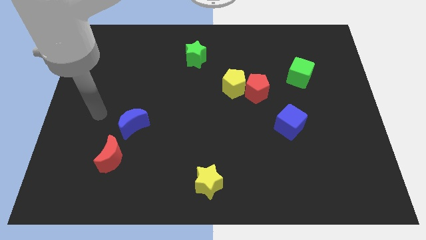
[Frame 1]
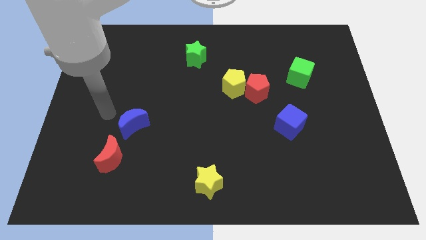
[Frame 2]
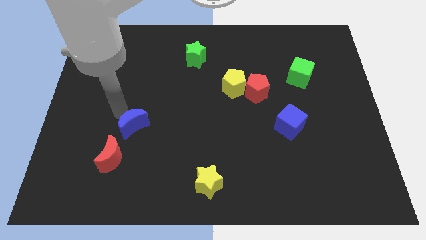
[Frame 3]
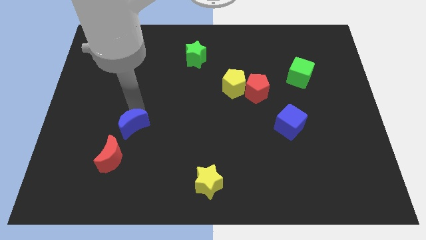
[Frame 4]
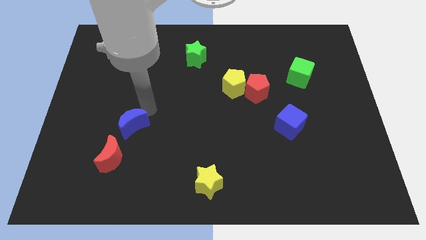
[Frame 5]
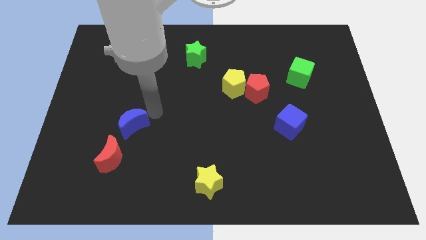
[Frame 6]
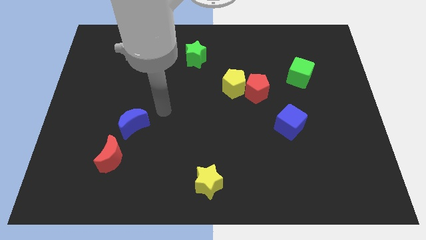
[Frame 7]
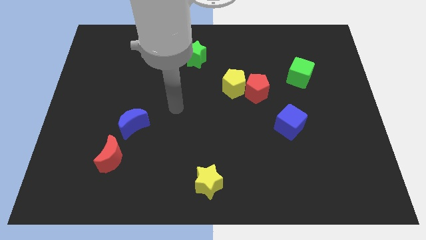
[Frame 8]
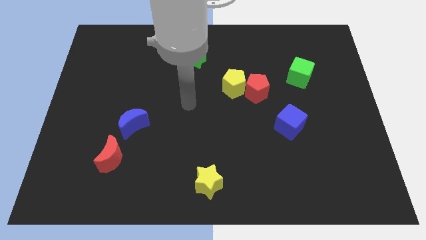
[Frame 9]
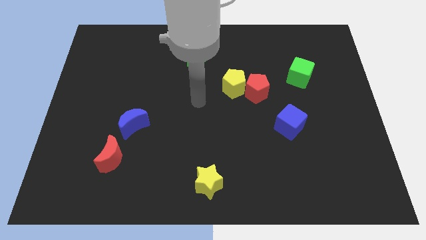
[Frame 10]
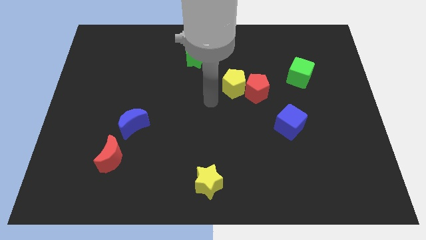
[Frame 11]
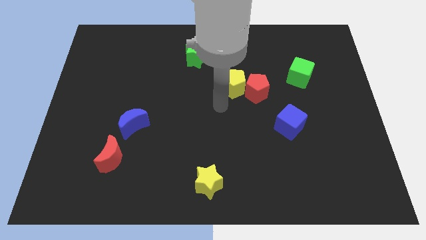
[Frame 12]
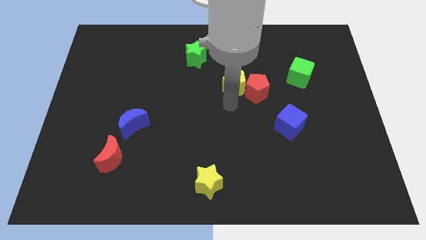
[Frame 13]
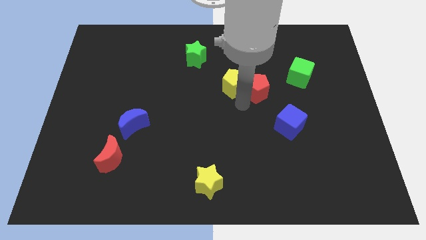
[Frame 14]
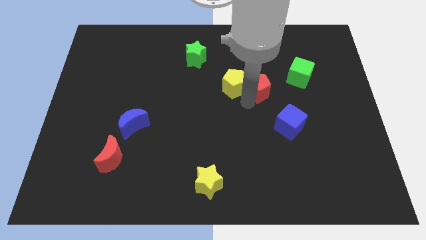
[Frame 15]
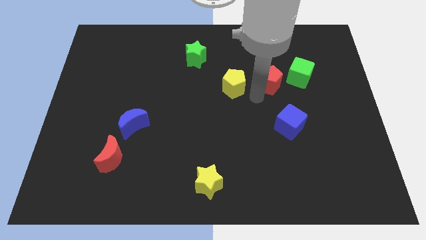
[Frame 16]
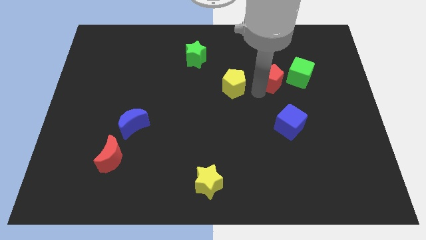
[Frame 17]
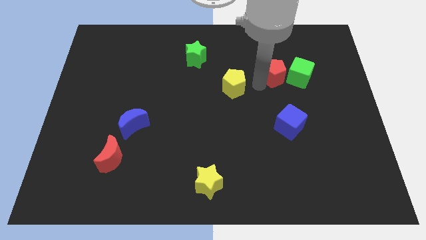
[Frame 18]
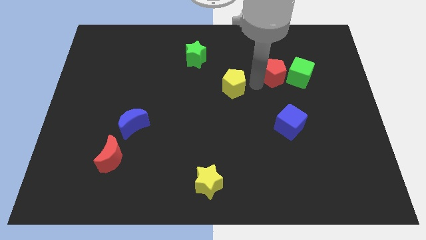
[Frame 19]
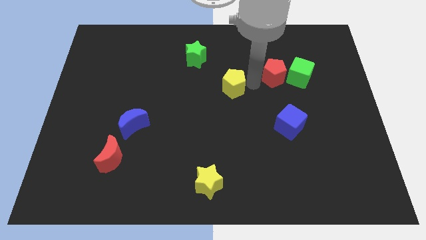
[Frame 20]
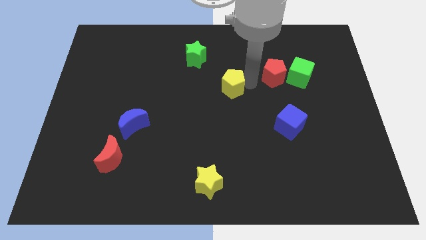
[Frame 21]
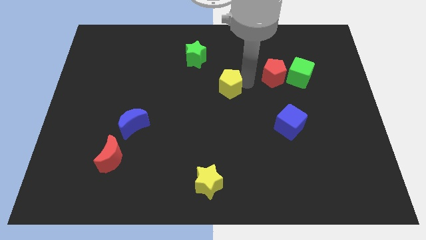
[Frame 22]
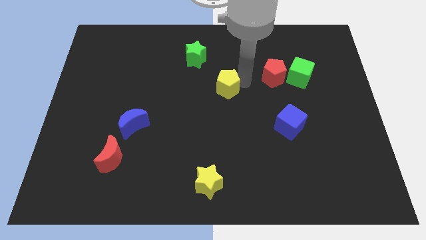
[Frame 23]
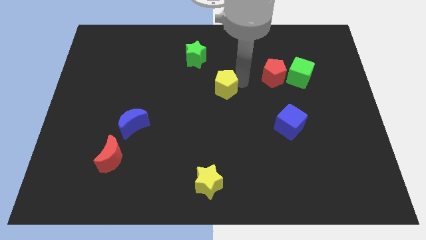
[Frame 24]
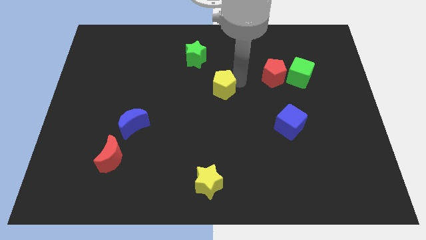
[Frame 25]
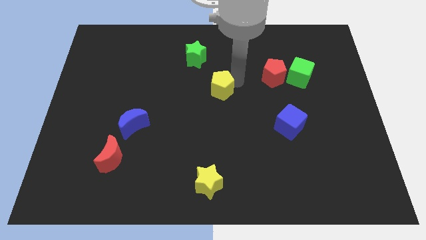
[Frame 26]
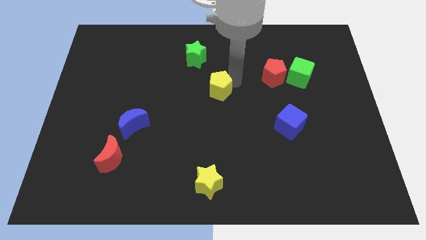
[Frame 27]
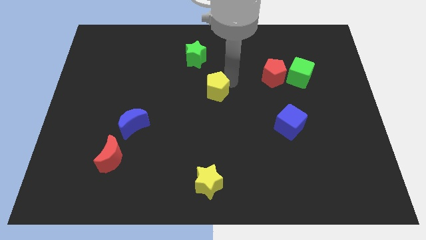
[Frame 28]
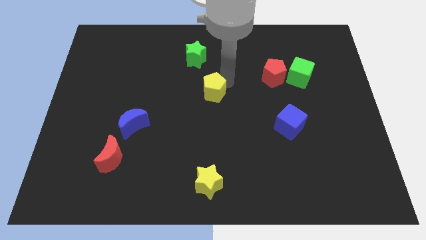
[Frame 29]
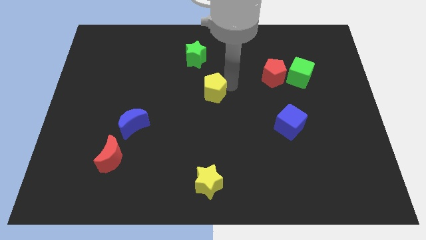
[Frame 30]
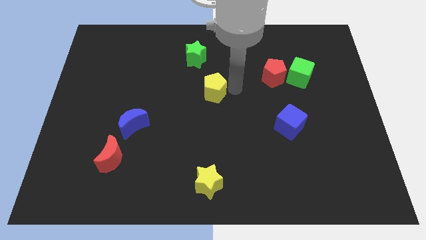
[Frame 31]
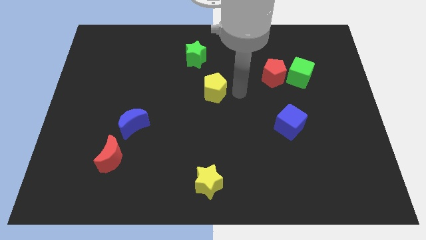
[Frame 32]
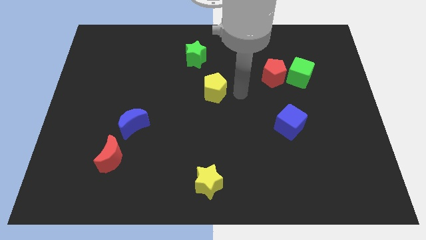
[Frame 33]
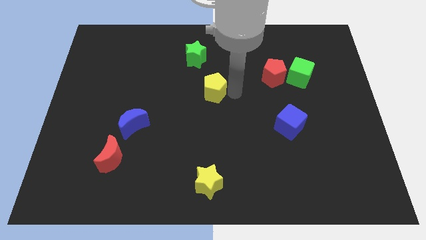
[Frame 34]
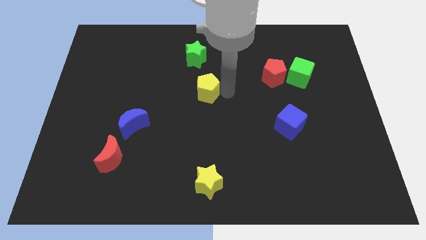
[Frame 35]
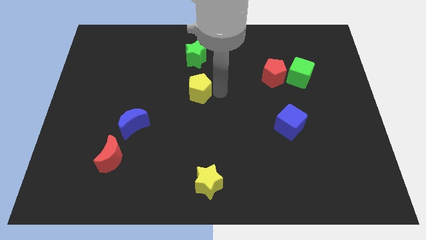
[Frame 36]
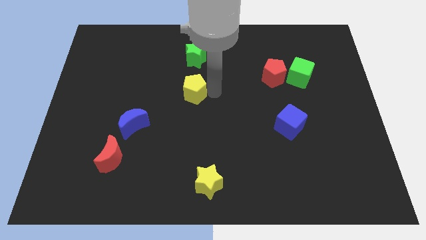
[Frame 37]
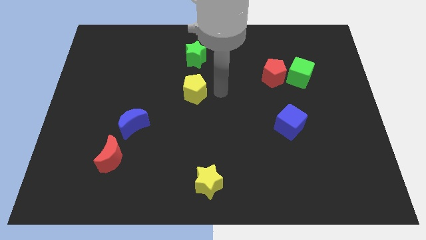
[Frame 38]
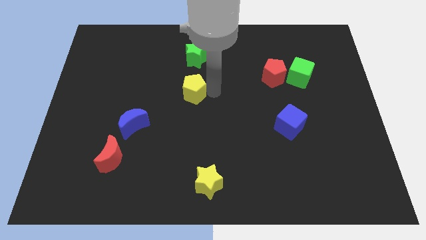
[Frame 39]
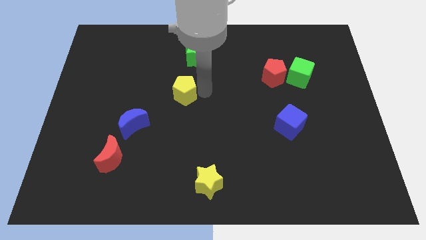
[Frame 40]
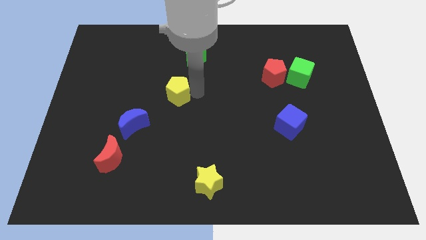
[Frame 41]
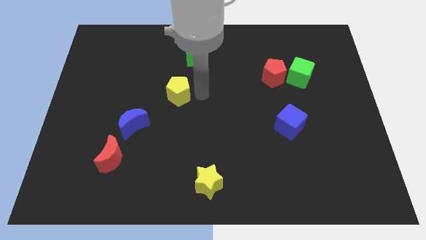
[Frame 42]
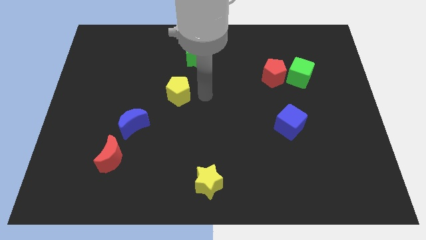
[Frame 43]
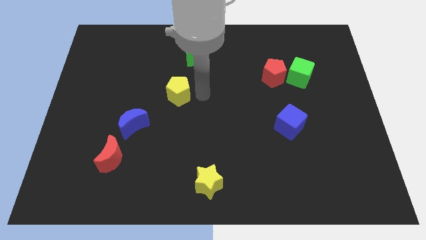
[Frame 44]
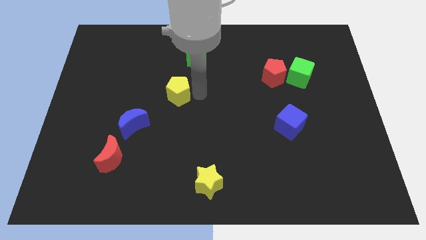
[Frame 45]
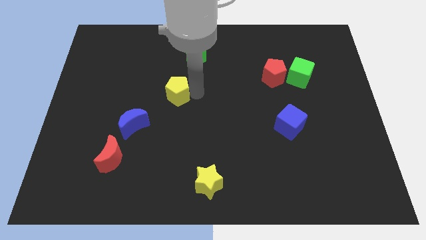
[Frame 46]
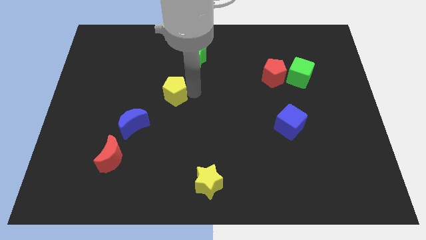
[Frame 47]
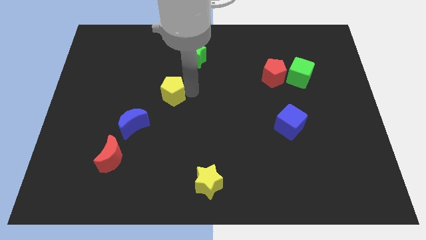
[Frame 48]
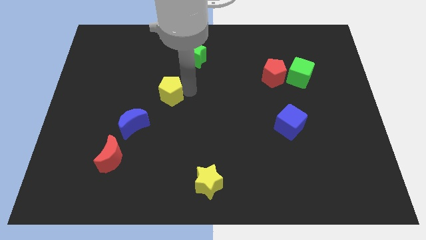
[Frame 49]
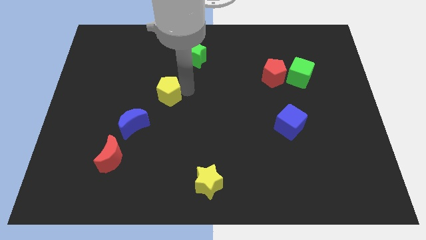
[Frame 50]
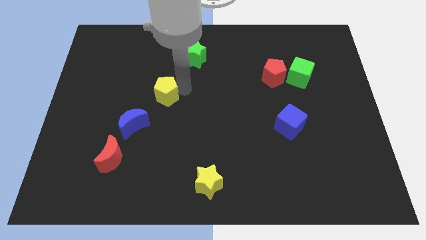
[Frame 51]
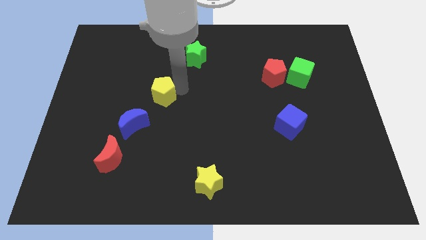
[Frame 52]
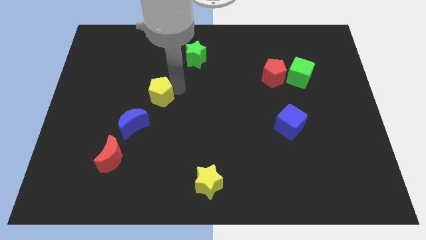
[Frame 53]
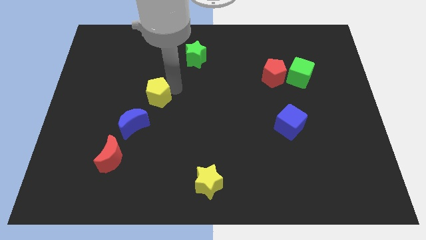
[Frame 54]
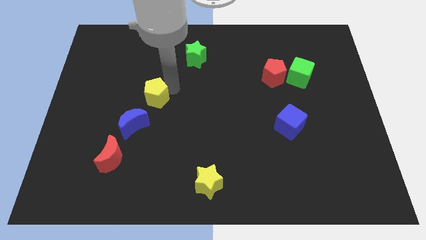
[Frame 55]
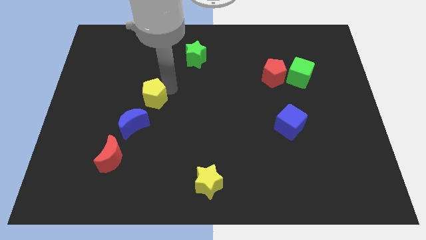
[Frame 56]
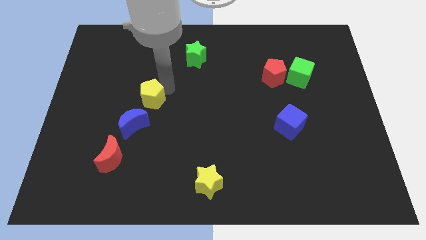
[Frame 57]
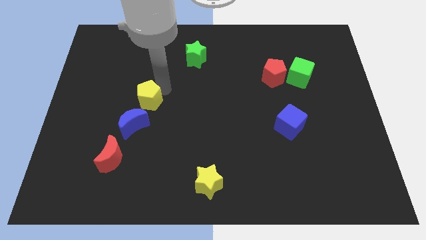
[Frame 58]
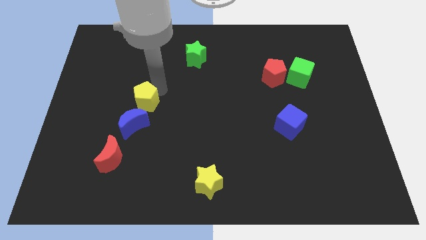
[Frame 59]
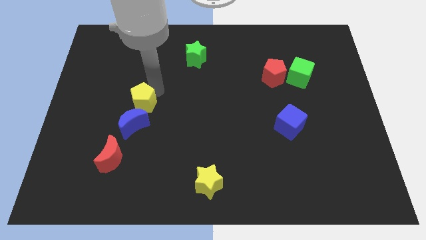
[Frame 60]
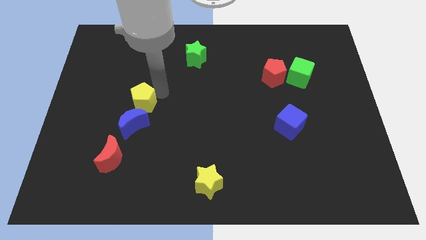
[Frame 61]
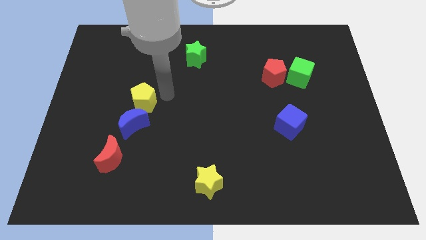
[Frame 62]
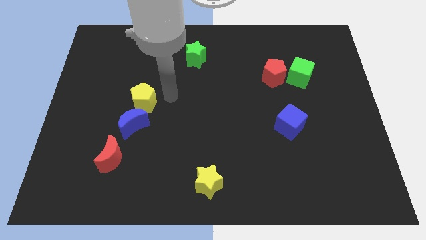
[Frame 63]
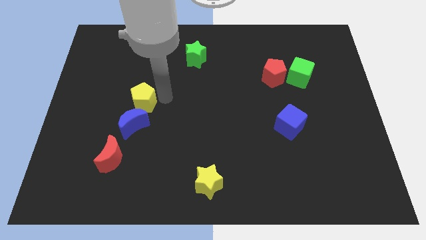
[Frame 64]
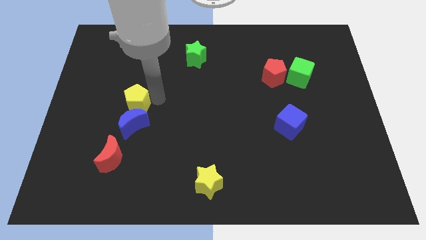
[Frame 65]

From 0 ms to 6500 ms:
move the yellow pentagon diagonally up and to the left of the blue moon
